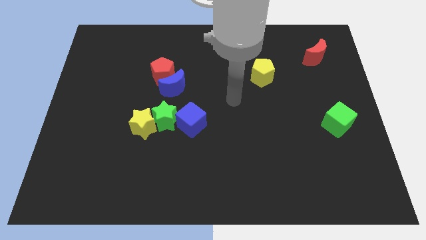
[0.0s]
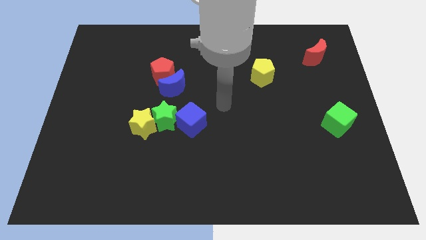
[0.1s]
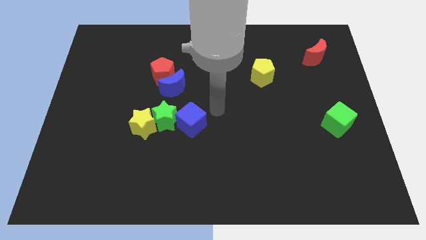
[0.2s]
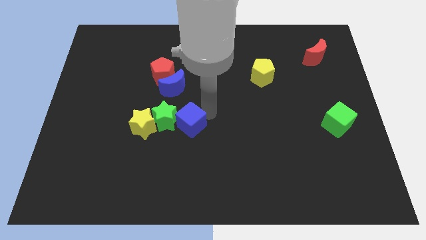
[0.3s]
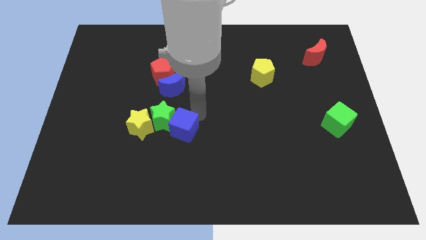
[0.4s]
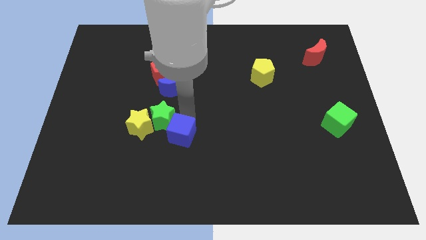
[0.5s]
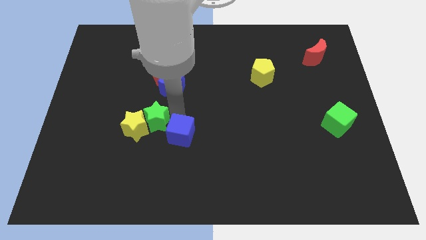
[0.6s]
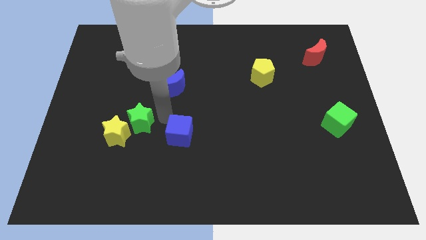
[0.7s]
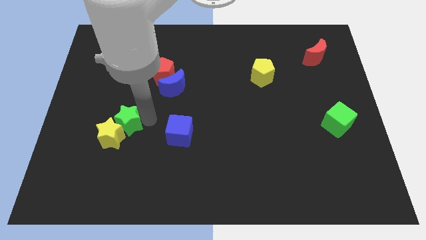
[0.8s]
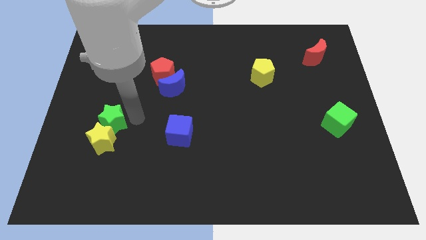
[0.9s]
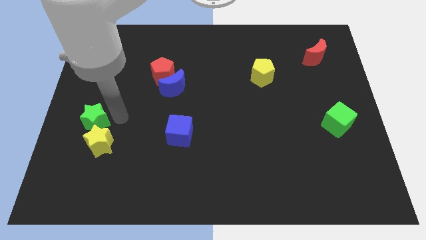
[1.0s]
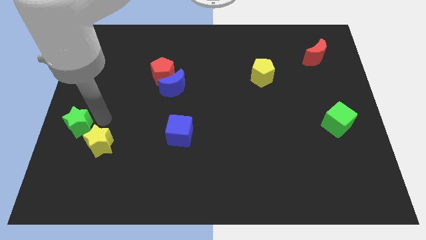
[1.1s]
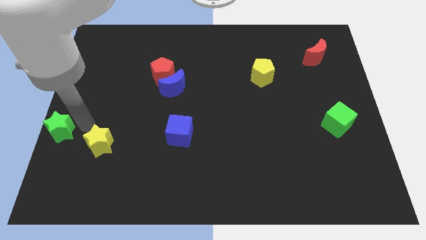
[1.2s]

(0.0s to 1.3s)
pull the yellow star apart from the green star

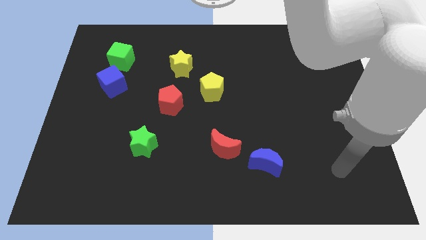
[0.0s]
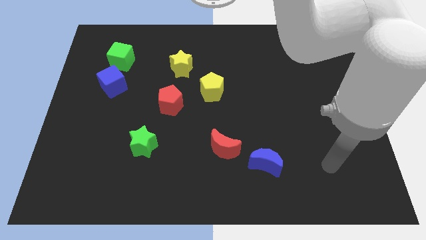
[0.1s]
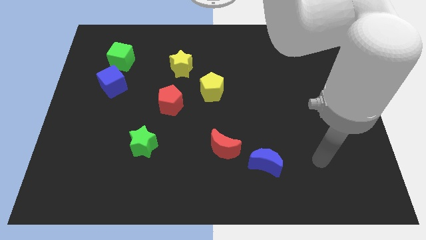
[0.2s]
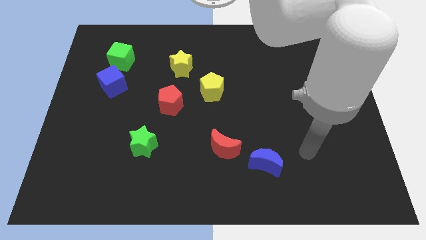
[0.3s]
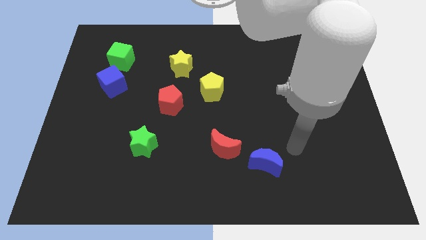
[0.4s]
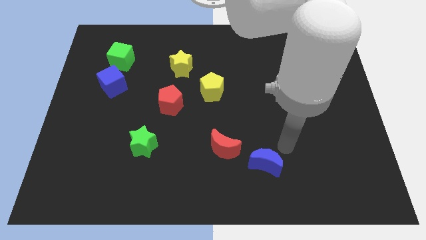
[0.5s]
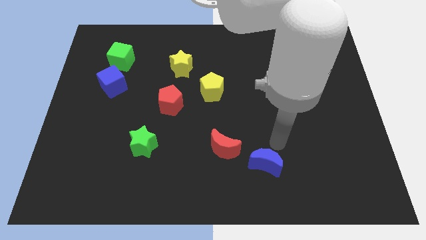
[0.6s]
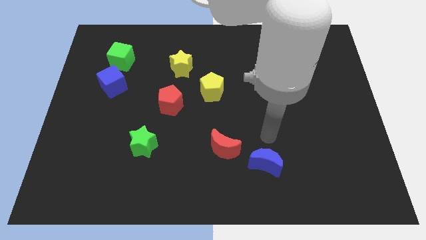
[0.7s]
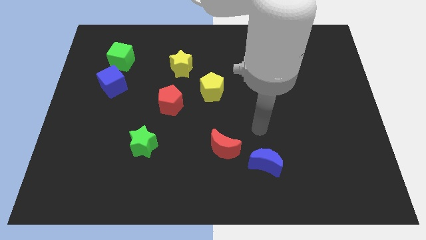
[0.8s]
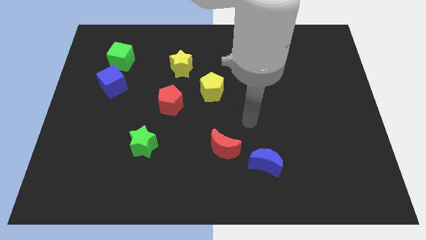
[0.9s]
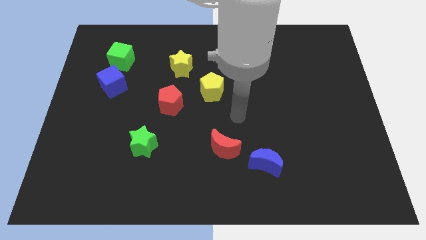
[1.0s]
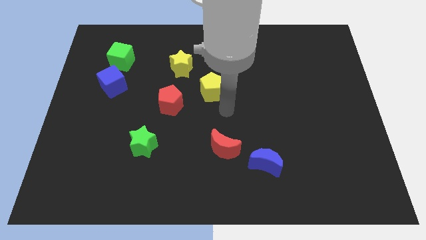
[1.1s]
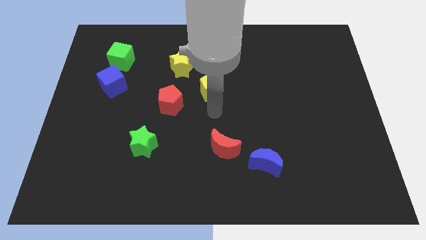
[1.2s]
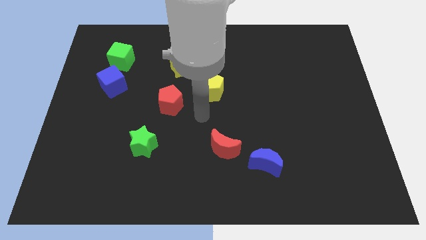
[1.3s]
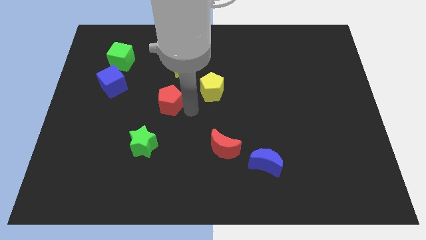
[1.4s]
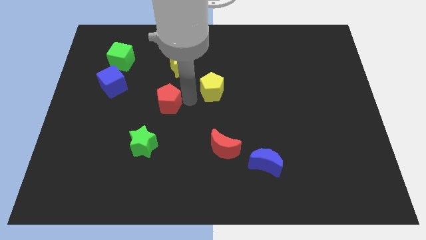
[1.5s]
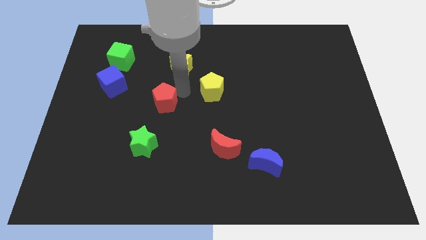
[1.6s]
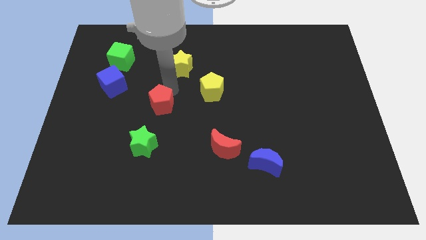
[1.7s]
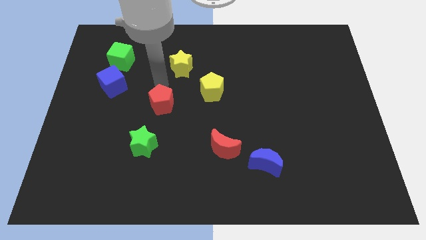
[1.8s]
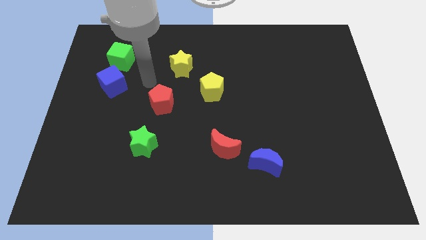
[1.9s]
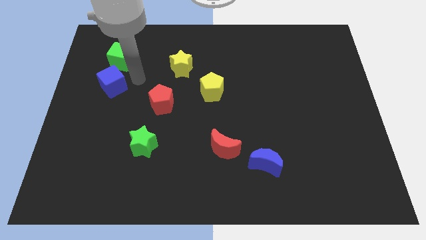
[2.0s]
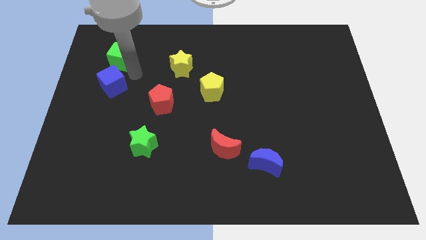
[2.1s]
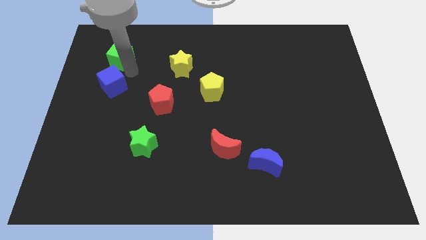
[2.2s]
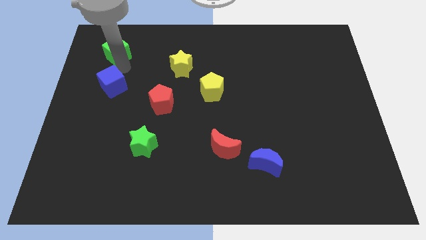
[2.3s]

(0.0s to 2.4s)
separate the blue cube from the green cube

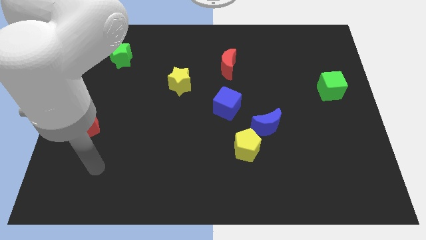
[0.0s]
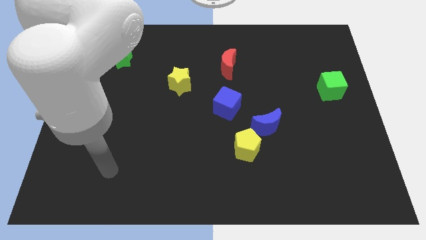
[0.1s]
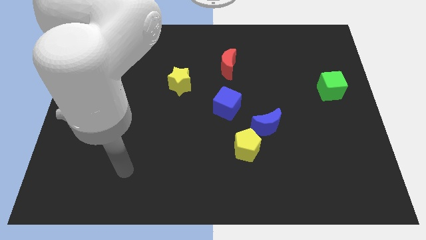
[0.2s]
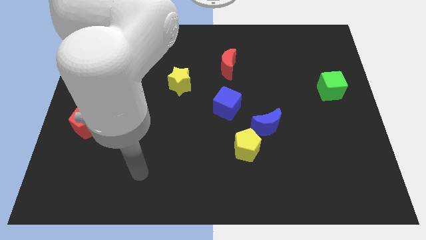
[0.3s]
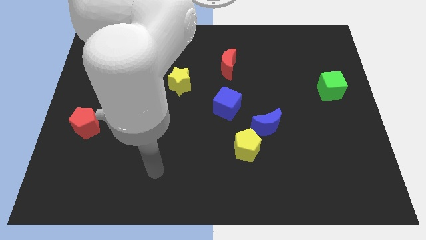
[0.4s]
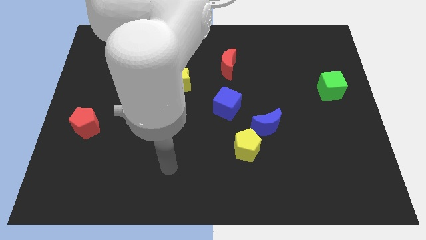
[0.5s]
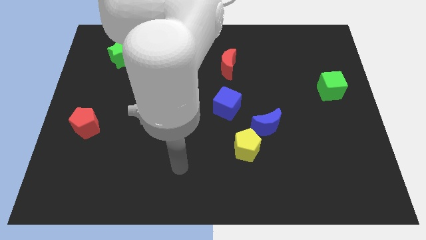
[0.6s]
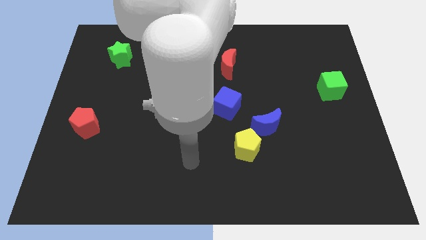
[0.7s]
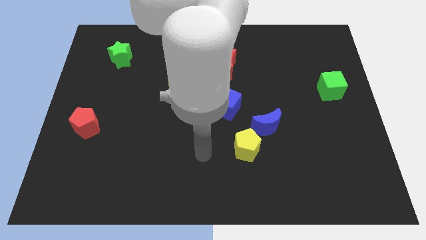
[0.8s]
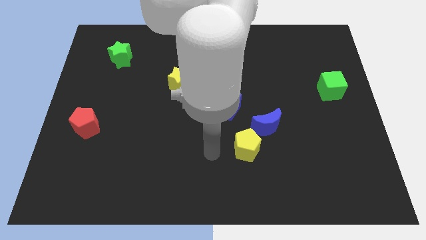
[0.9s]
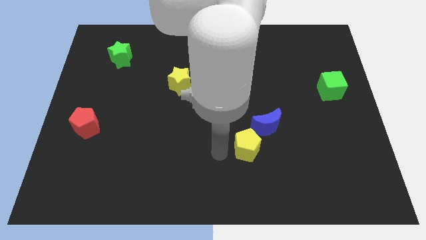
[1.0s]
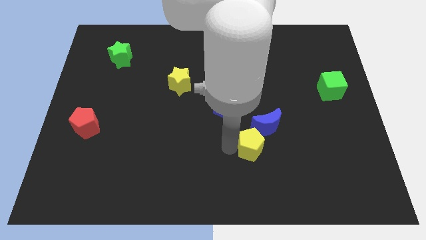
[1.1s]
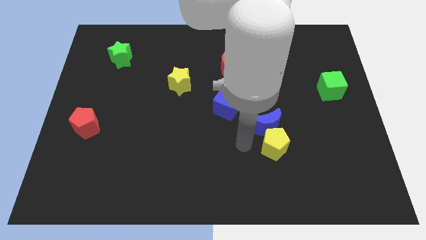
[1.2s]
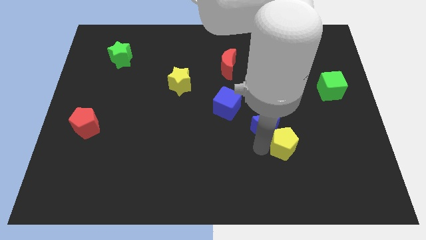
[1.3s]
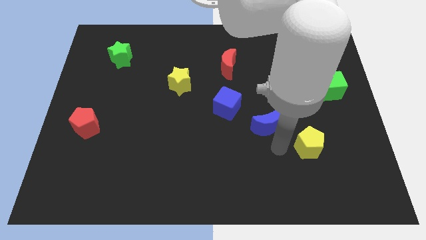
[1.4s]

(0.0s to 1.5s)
separate the blue moon from the yellow pentagon

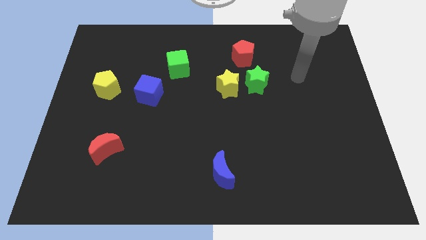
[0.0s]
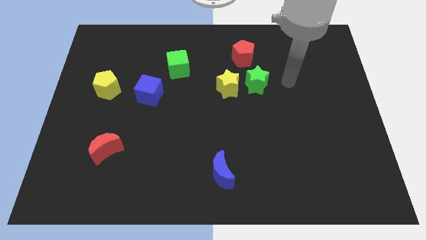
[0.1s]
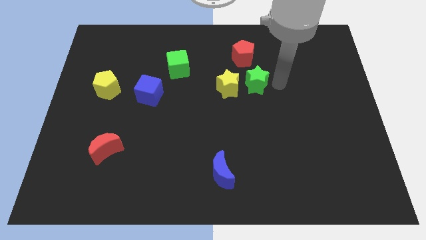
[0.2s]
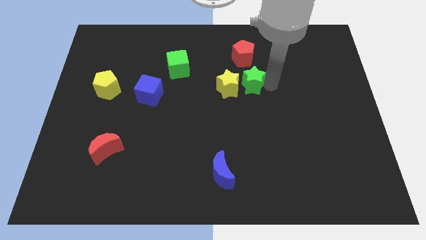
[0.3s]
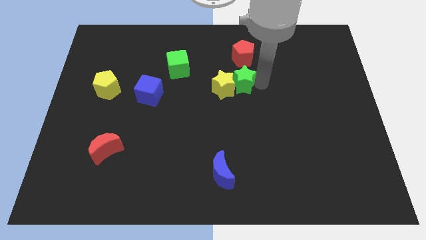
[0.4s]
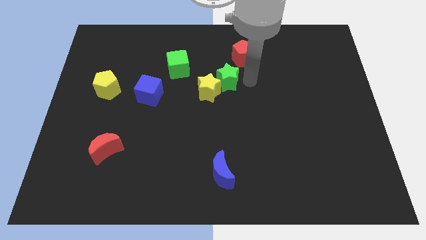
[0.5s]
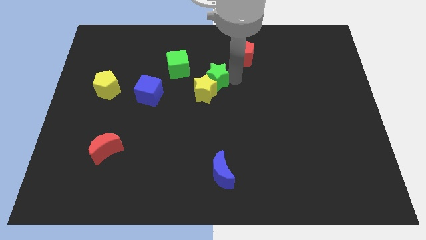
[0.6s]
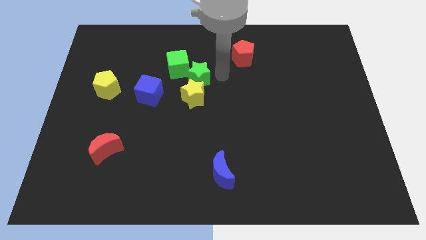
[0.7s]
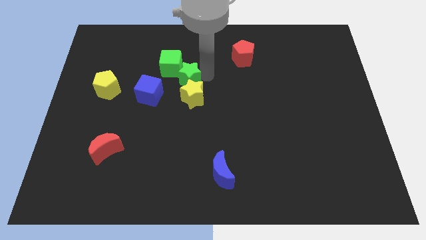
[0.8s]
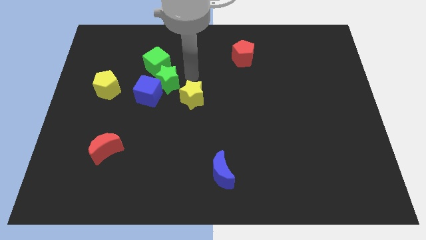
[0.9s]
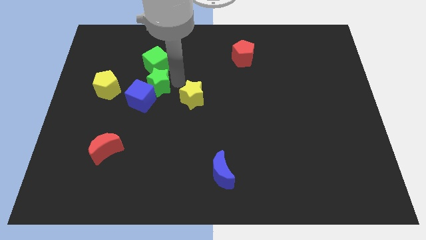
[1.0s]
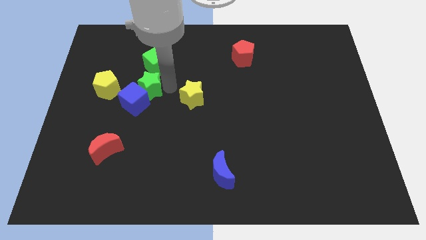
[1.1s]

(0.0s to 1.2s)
separate the yellow star from the green star

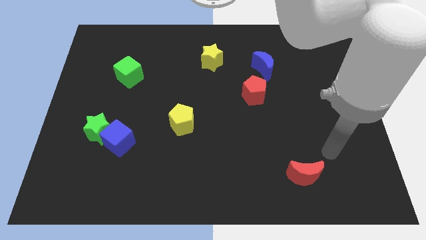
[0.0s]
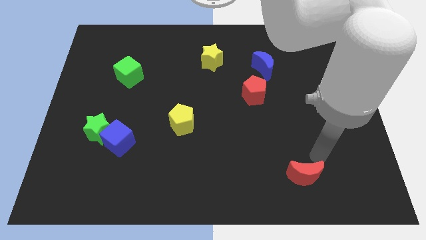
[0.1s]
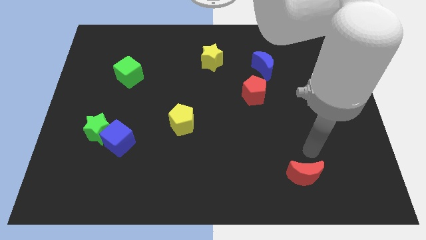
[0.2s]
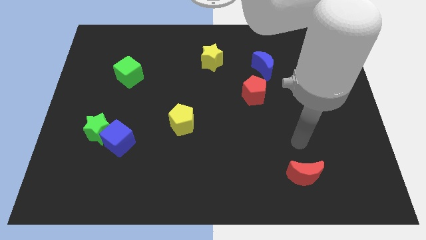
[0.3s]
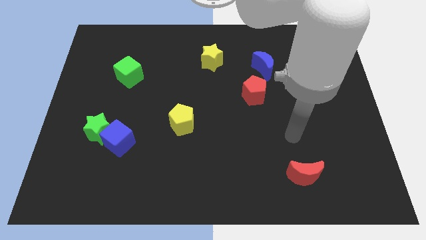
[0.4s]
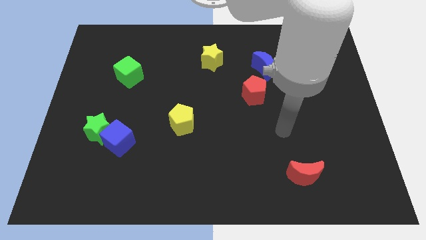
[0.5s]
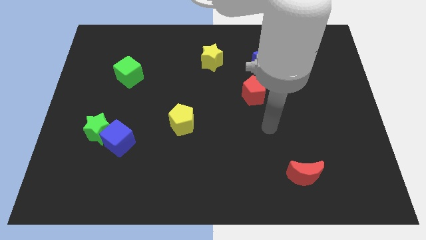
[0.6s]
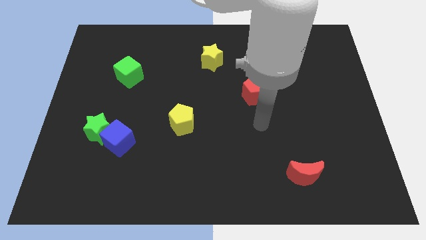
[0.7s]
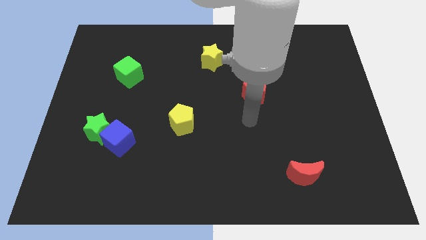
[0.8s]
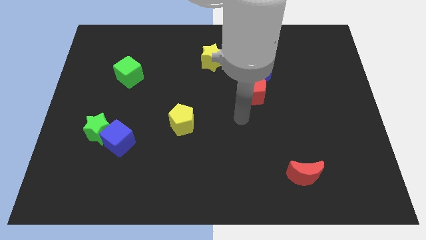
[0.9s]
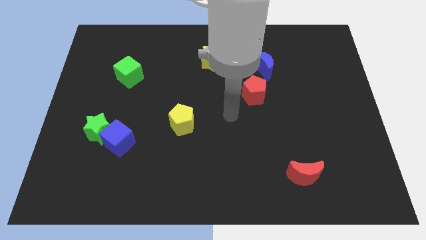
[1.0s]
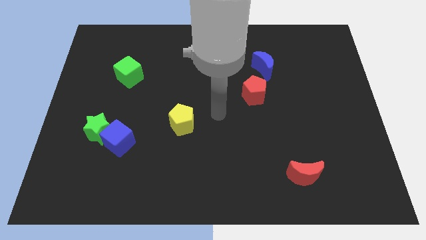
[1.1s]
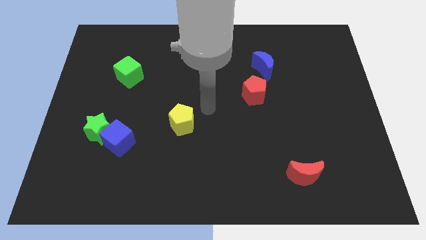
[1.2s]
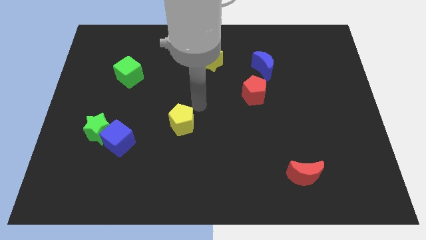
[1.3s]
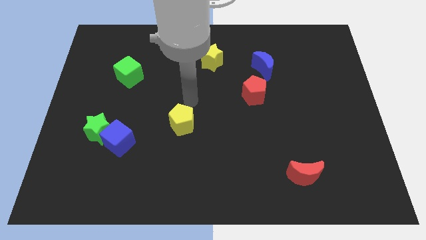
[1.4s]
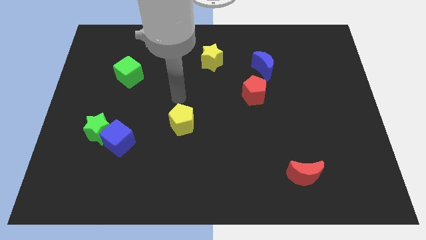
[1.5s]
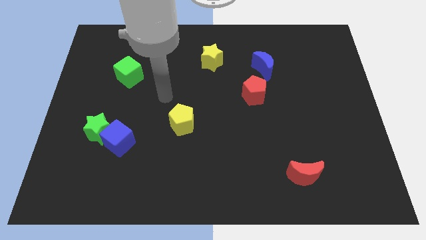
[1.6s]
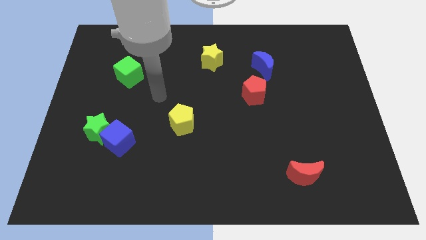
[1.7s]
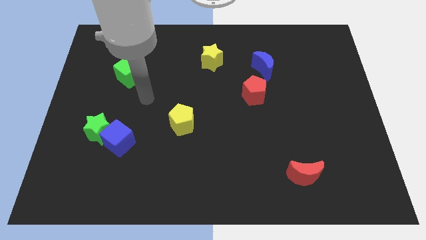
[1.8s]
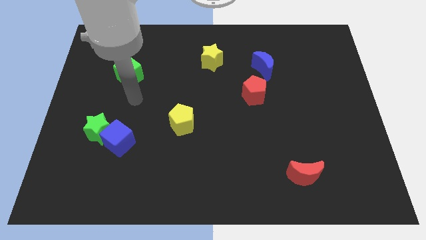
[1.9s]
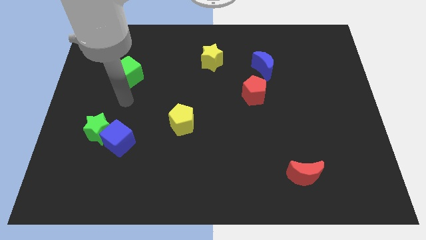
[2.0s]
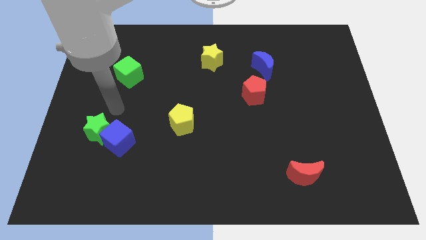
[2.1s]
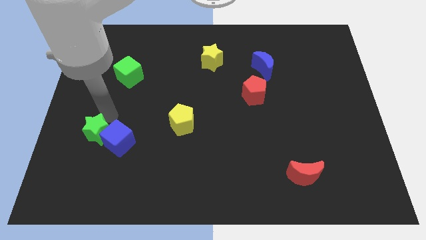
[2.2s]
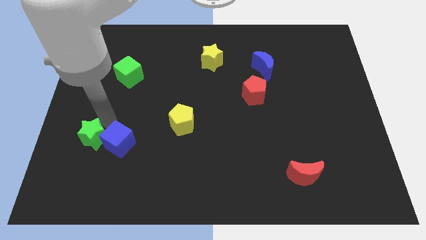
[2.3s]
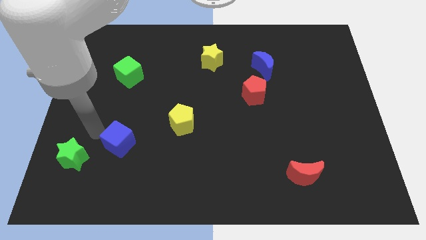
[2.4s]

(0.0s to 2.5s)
separate the blue cube from the green star

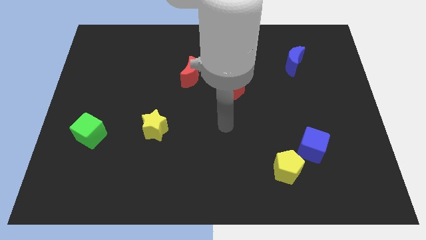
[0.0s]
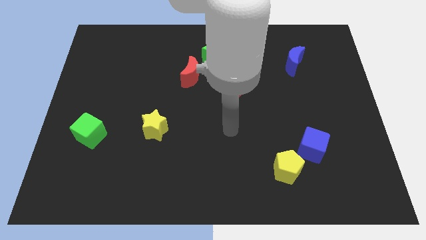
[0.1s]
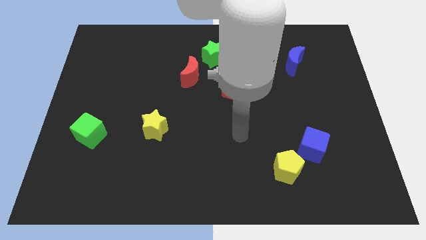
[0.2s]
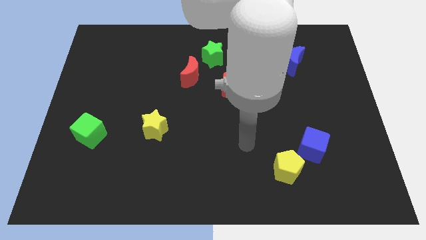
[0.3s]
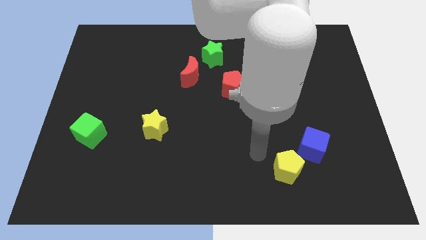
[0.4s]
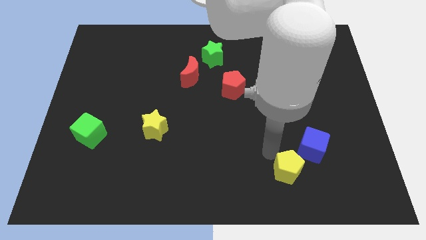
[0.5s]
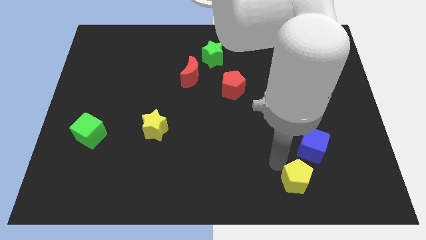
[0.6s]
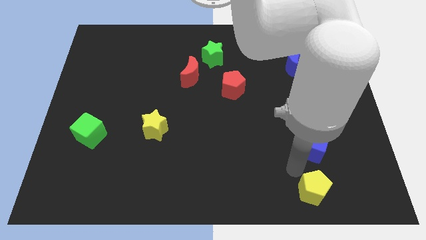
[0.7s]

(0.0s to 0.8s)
move the blue cube away from the yellow pentagon
